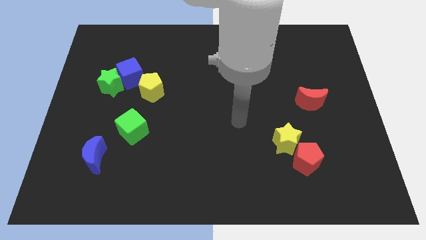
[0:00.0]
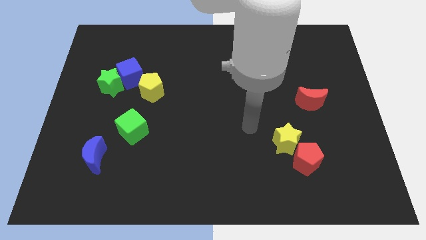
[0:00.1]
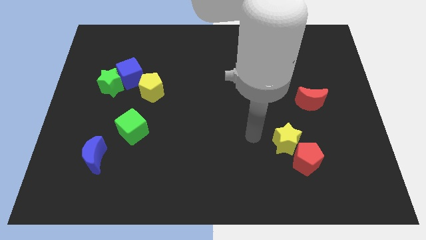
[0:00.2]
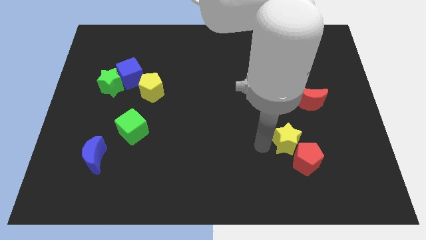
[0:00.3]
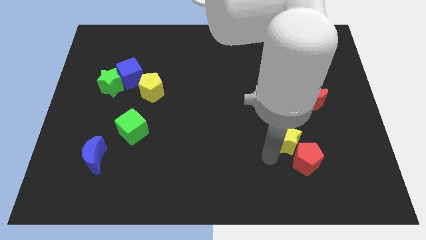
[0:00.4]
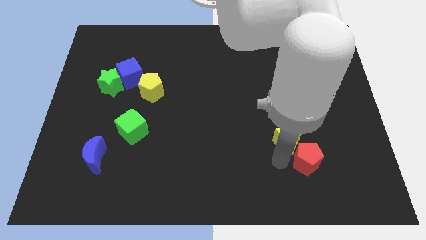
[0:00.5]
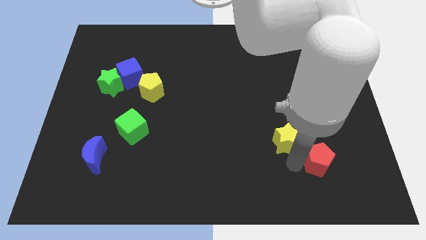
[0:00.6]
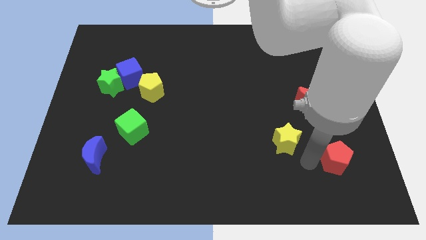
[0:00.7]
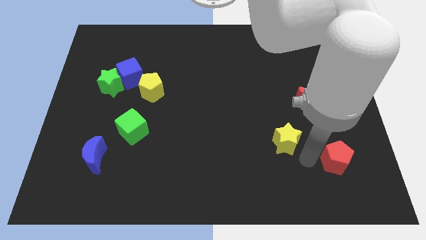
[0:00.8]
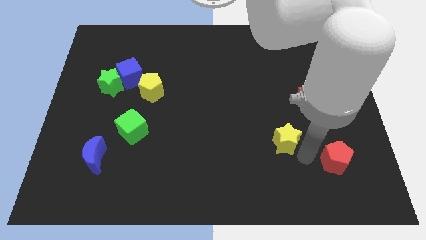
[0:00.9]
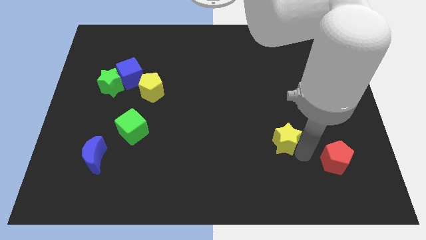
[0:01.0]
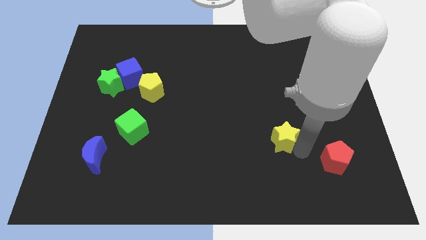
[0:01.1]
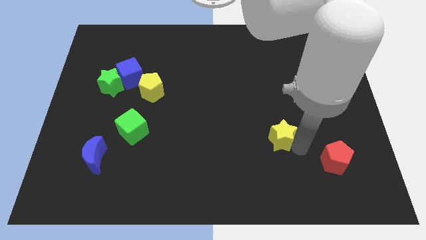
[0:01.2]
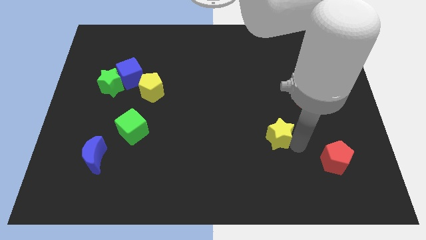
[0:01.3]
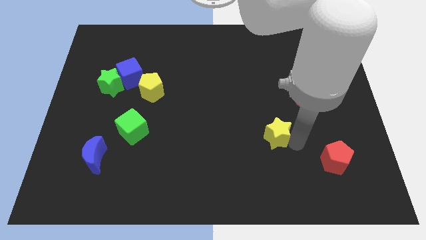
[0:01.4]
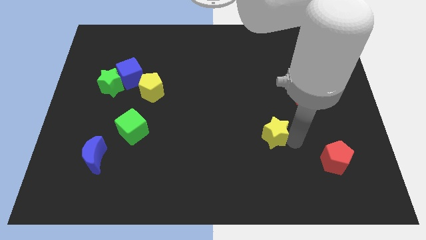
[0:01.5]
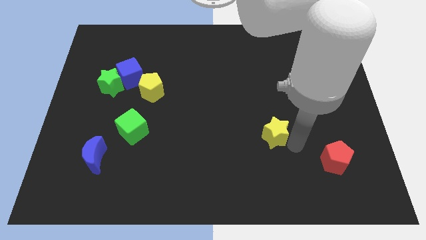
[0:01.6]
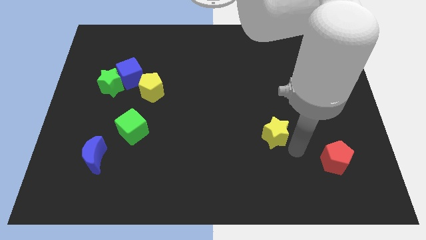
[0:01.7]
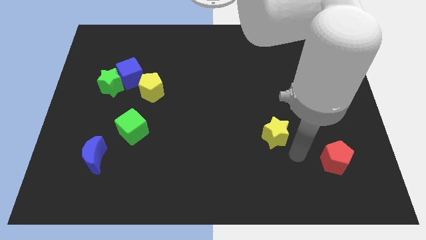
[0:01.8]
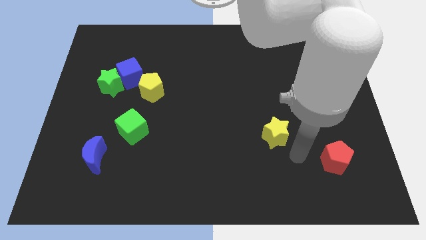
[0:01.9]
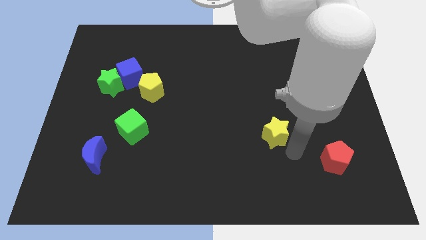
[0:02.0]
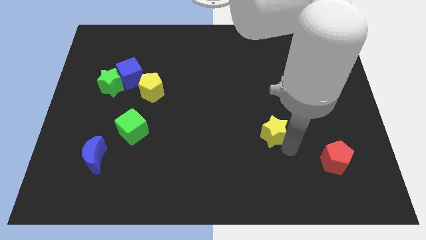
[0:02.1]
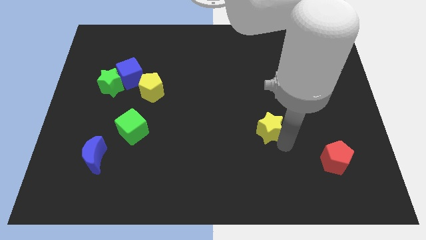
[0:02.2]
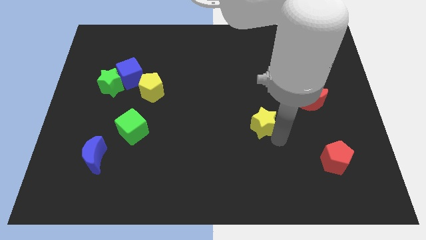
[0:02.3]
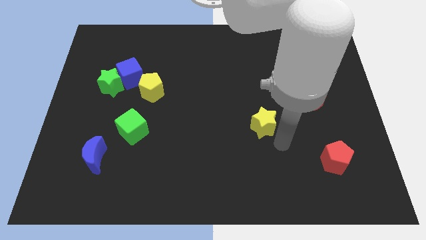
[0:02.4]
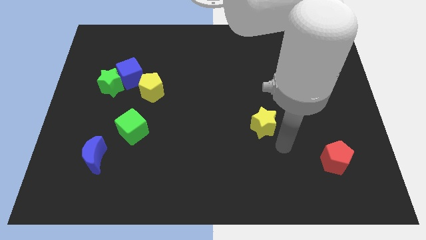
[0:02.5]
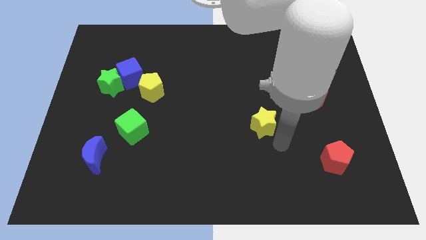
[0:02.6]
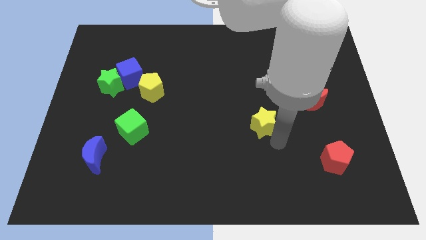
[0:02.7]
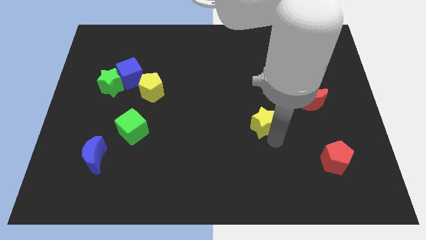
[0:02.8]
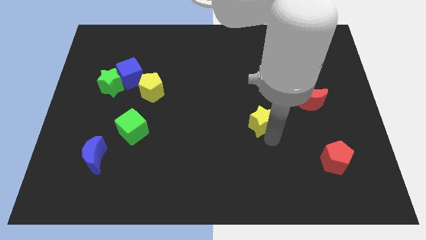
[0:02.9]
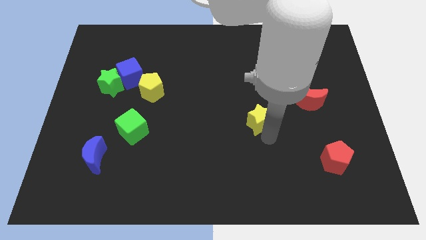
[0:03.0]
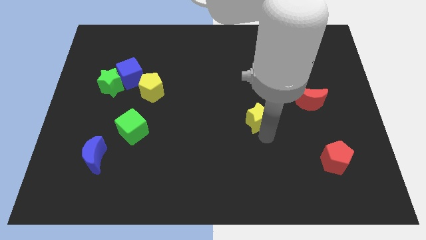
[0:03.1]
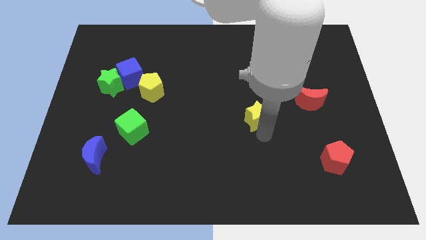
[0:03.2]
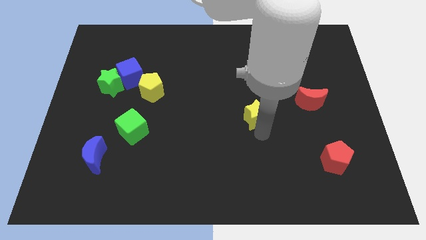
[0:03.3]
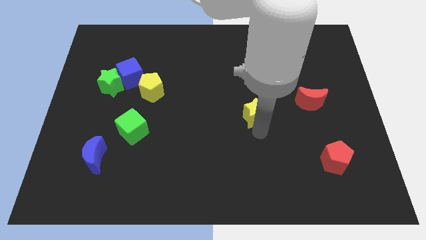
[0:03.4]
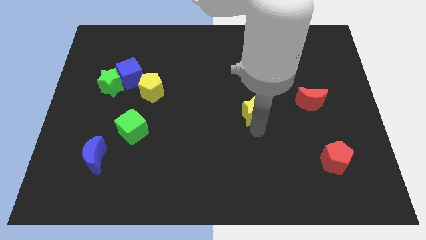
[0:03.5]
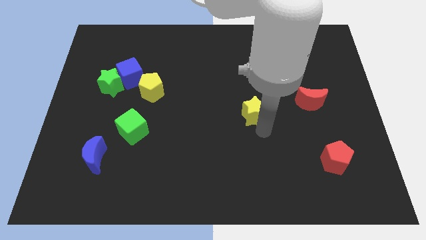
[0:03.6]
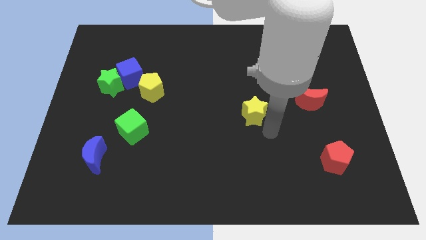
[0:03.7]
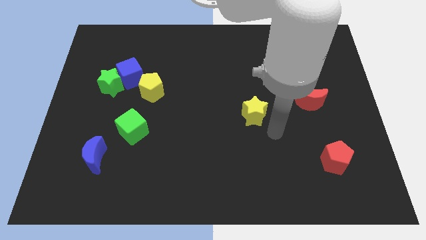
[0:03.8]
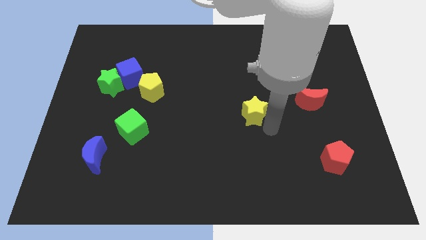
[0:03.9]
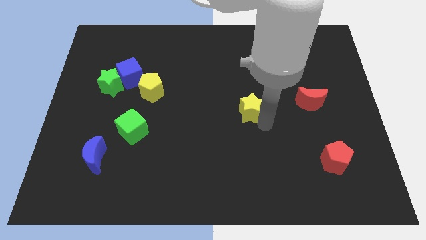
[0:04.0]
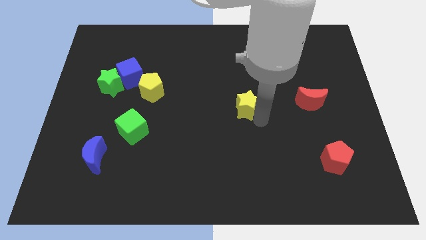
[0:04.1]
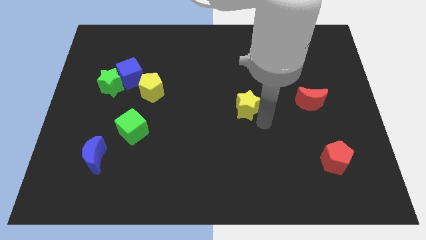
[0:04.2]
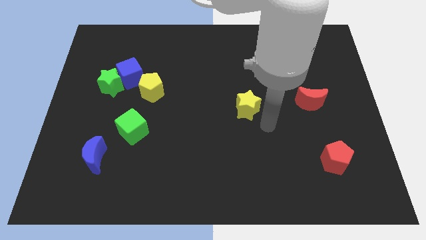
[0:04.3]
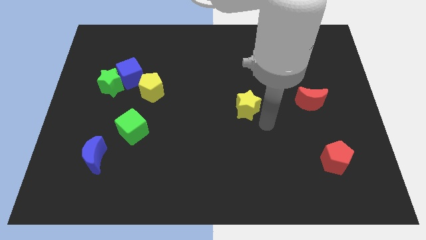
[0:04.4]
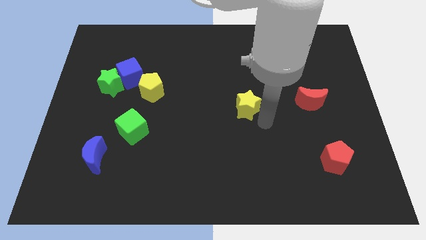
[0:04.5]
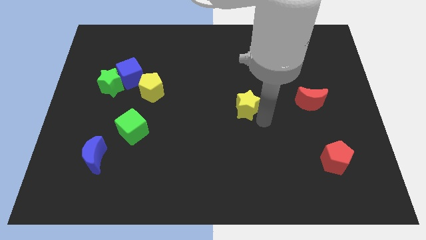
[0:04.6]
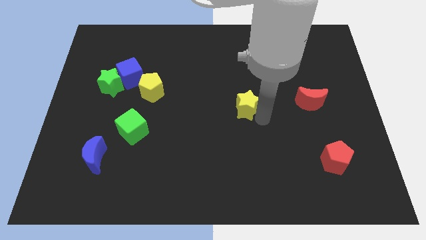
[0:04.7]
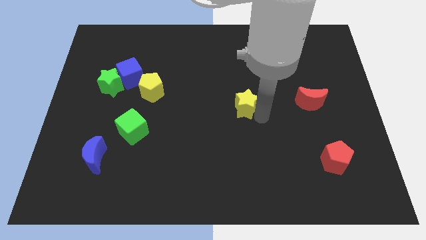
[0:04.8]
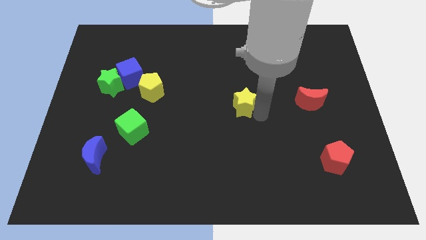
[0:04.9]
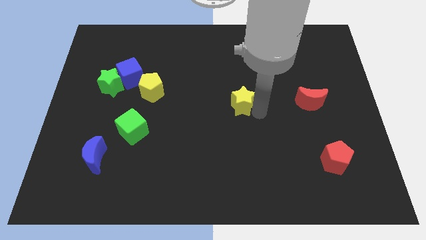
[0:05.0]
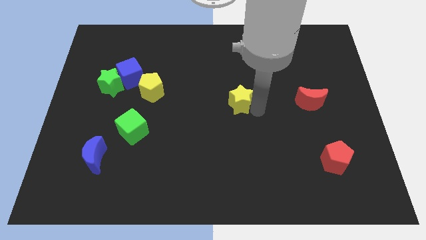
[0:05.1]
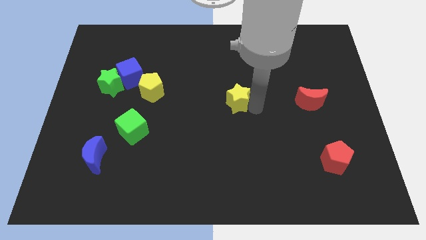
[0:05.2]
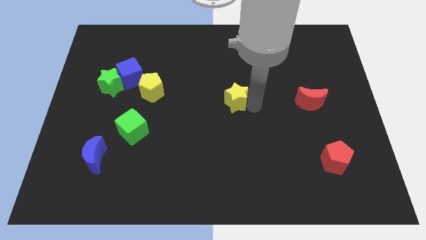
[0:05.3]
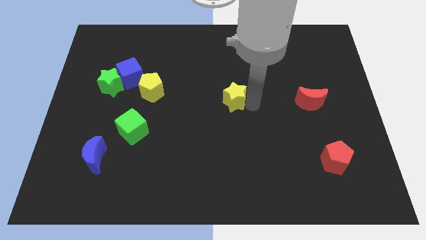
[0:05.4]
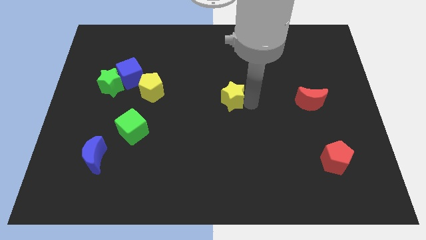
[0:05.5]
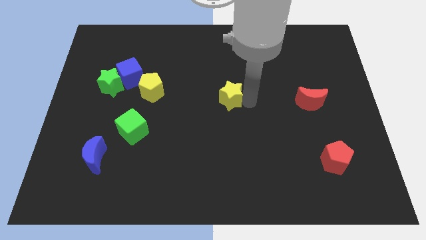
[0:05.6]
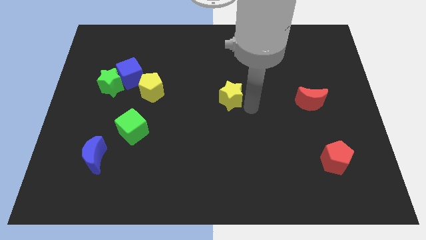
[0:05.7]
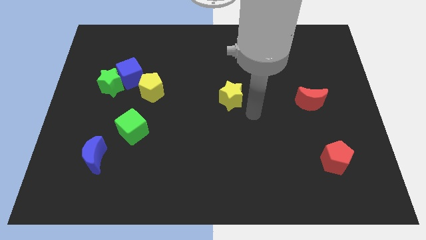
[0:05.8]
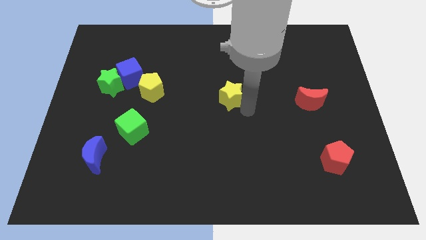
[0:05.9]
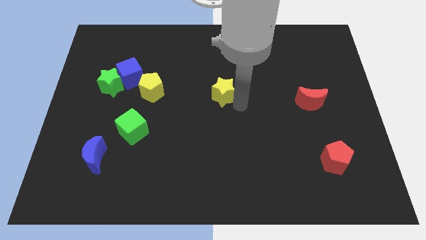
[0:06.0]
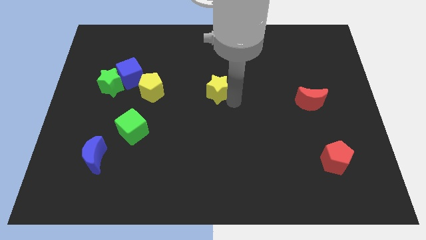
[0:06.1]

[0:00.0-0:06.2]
push the yellow star up and left diagonally

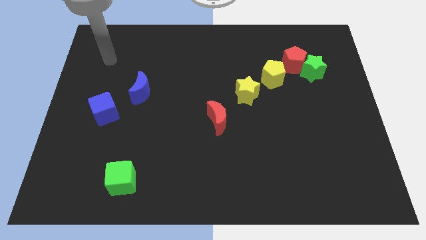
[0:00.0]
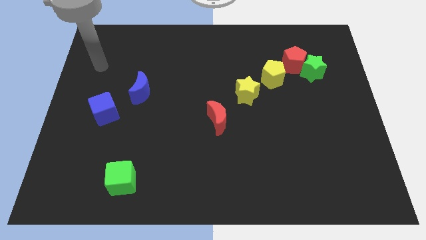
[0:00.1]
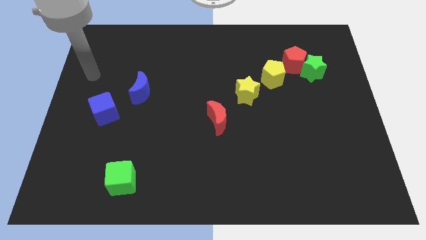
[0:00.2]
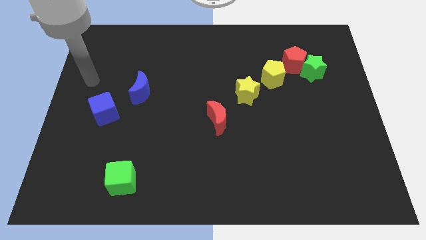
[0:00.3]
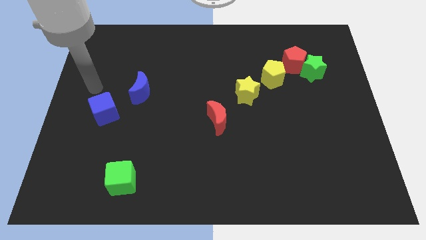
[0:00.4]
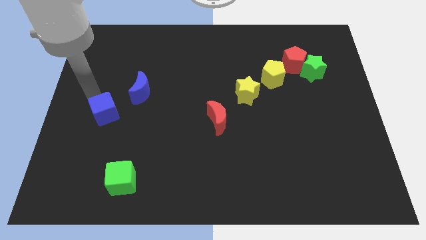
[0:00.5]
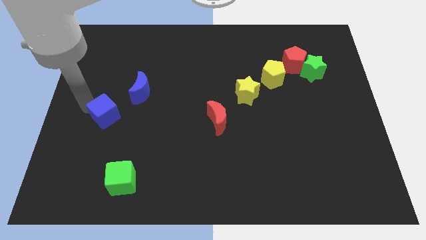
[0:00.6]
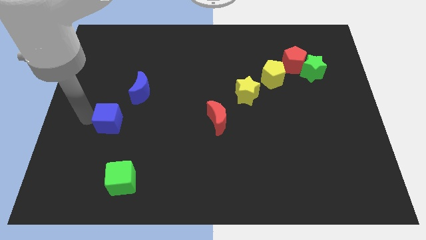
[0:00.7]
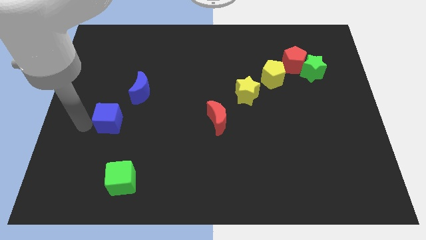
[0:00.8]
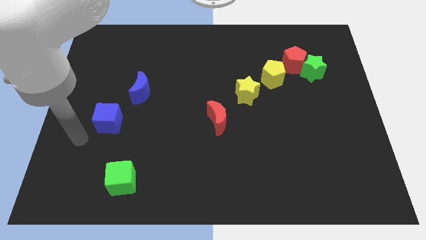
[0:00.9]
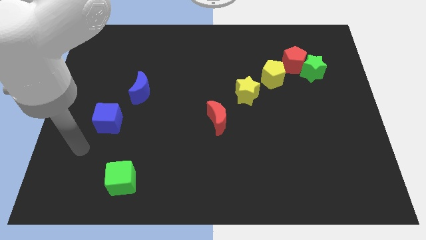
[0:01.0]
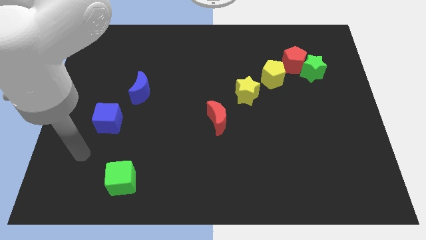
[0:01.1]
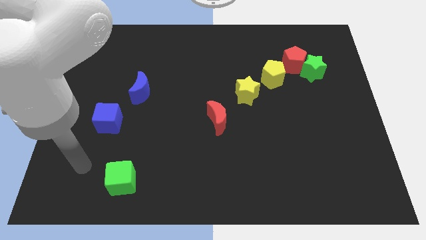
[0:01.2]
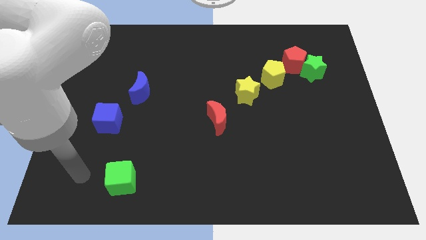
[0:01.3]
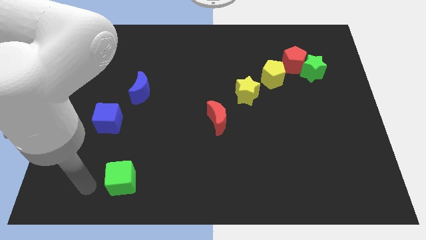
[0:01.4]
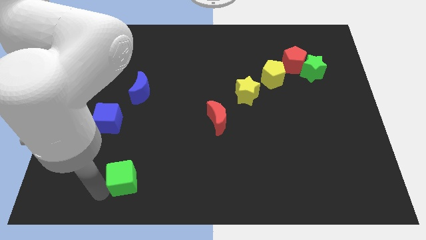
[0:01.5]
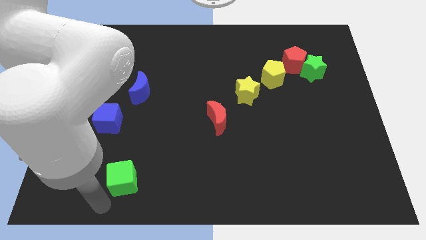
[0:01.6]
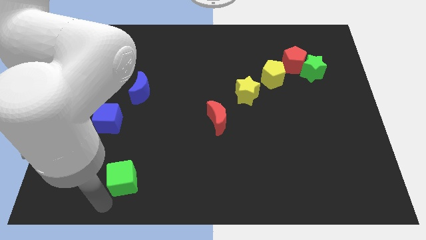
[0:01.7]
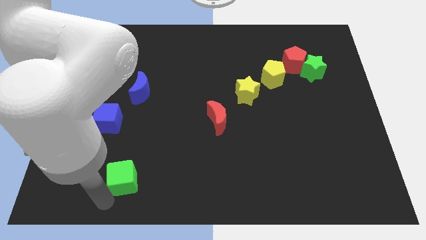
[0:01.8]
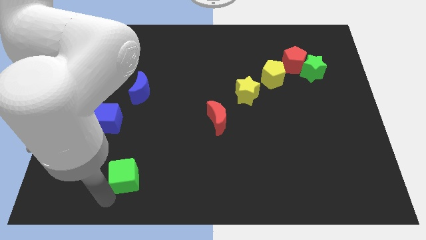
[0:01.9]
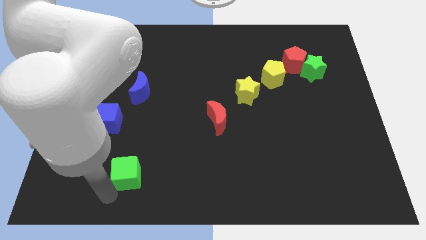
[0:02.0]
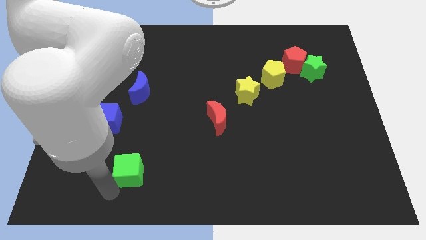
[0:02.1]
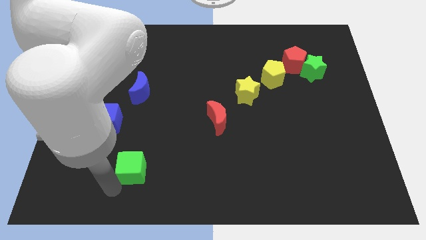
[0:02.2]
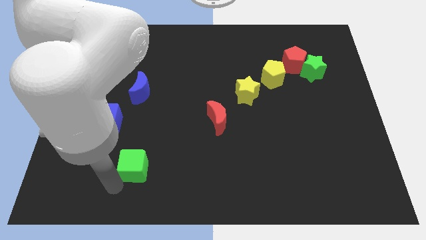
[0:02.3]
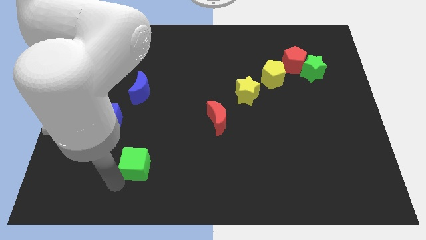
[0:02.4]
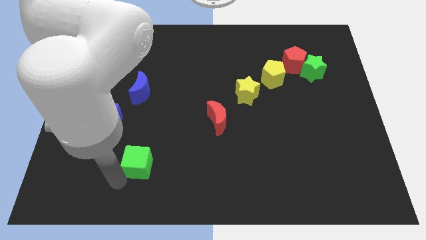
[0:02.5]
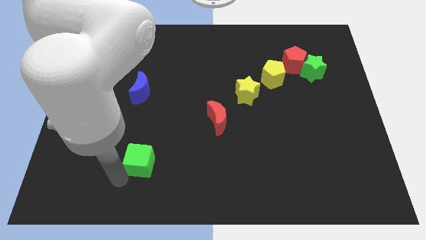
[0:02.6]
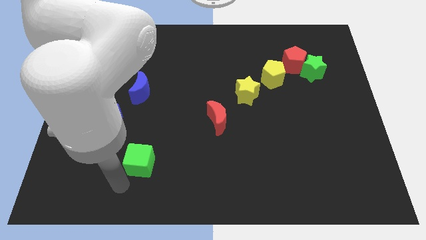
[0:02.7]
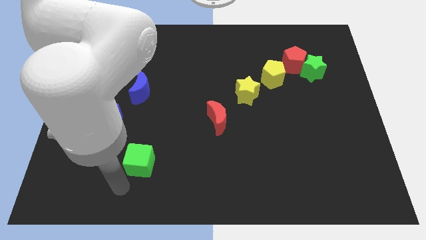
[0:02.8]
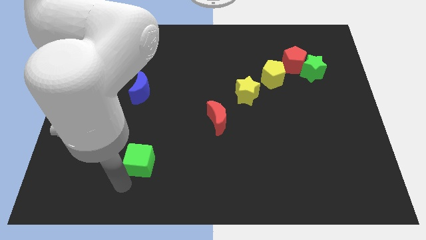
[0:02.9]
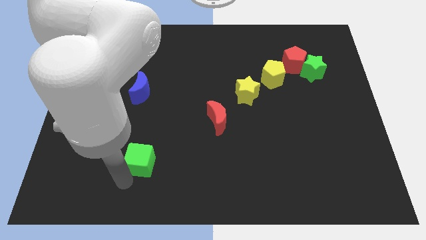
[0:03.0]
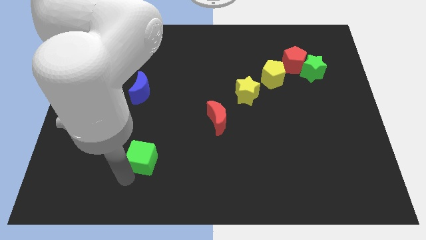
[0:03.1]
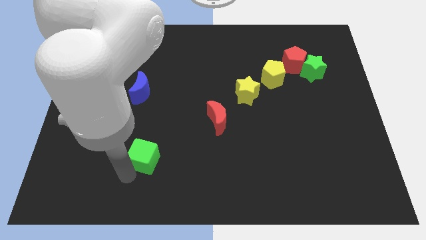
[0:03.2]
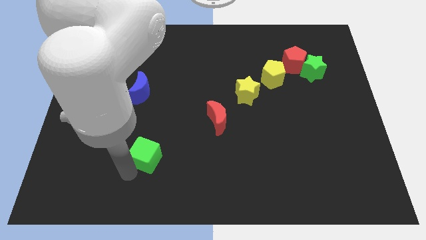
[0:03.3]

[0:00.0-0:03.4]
slide the green cube a bit diagonally upwards and to the right
